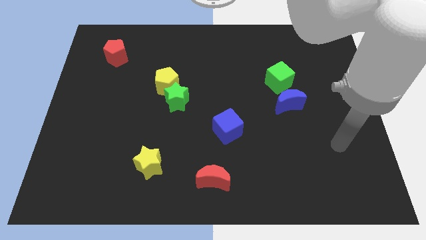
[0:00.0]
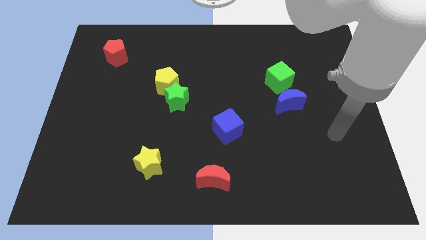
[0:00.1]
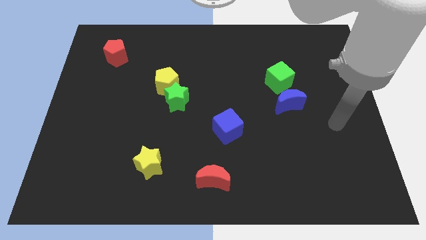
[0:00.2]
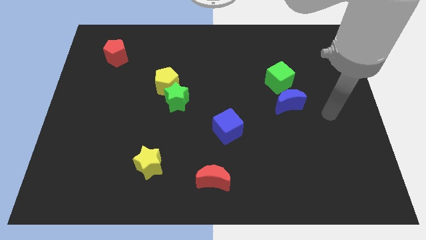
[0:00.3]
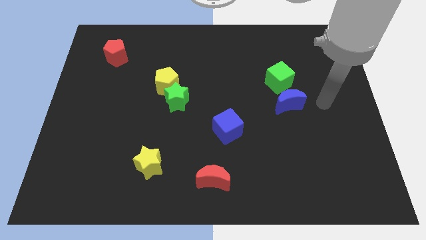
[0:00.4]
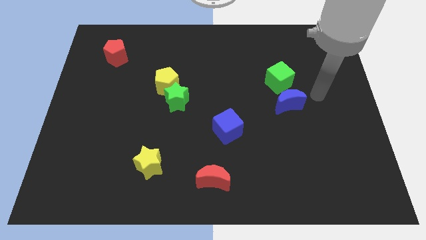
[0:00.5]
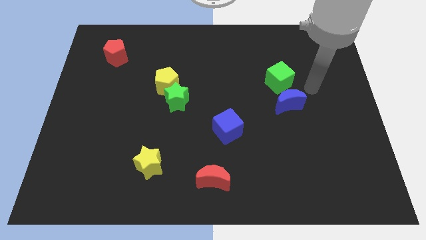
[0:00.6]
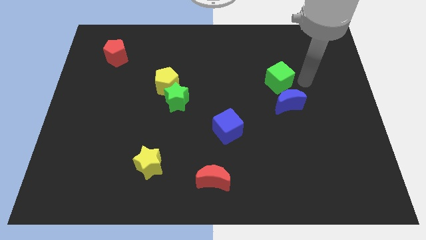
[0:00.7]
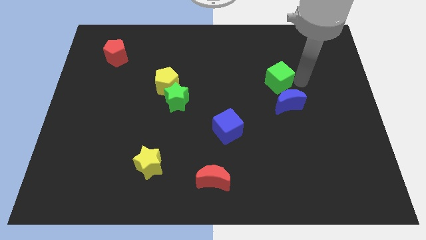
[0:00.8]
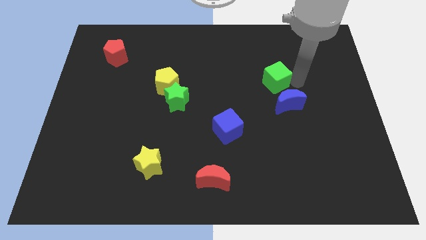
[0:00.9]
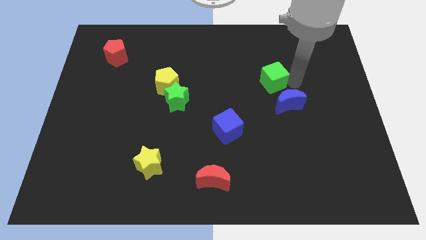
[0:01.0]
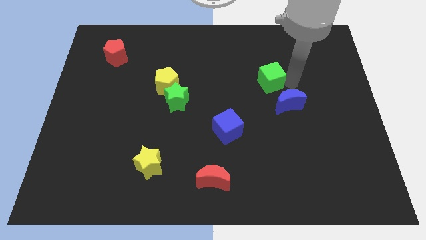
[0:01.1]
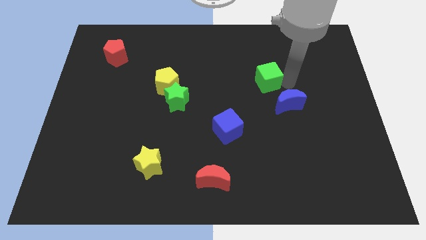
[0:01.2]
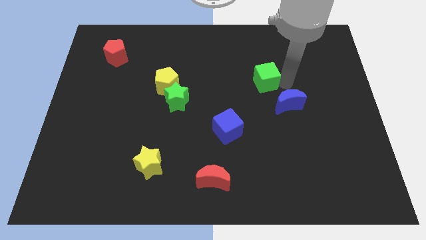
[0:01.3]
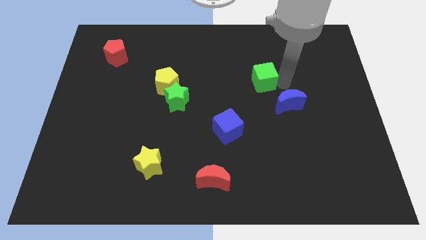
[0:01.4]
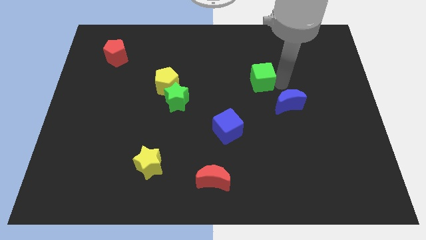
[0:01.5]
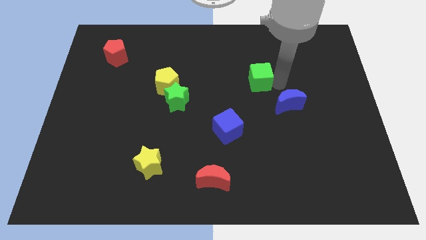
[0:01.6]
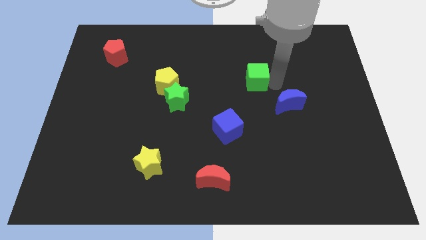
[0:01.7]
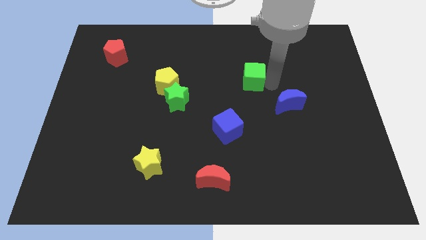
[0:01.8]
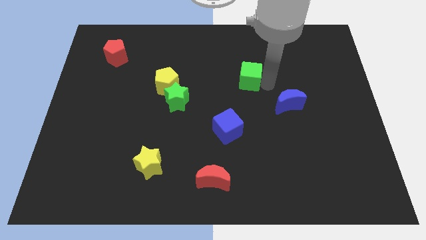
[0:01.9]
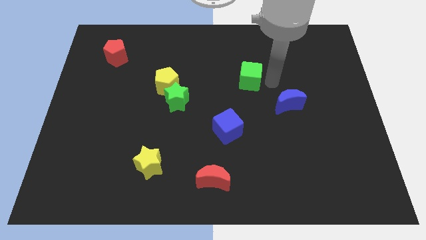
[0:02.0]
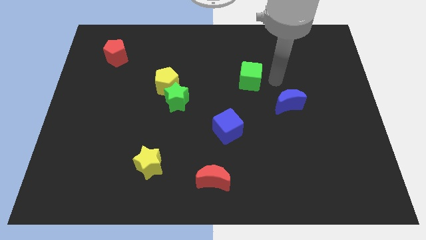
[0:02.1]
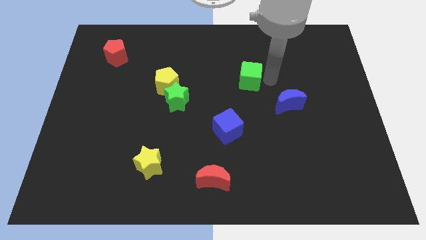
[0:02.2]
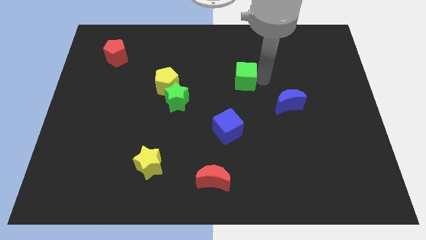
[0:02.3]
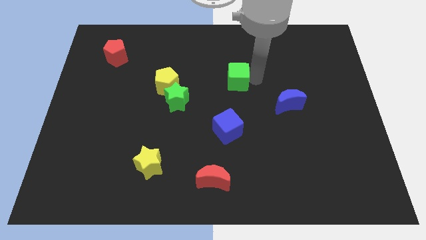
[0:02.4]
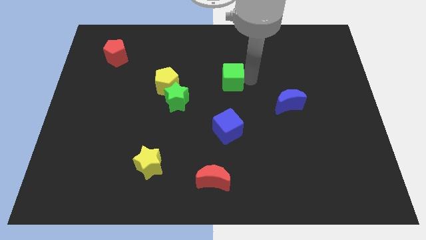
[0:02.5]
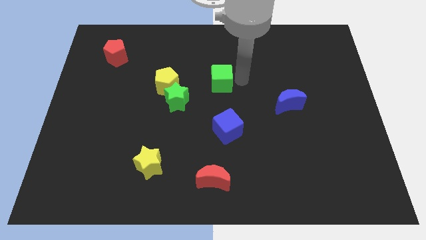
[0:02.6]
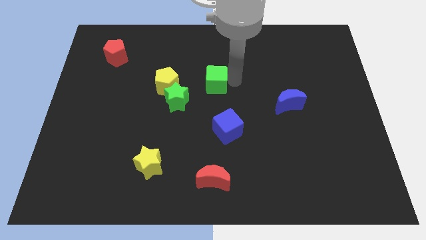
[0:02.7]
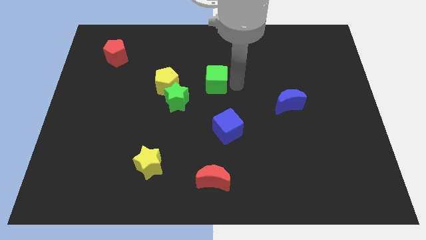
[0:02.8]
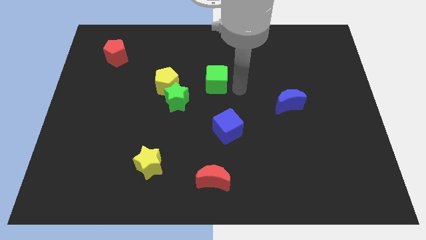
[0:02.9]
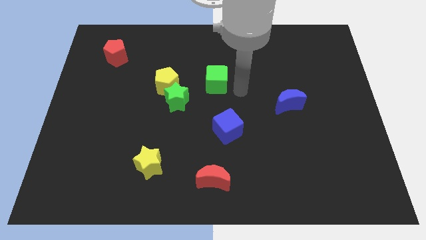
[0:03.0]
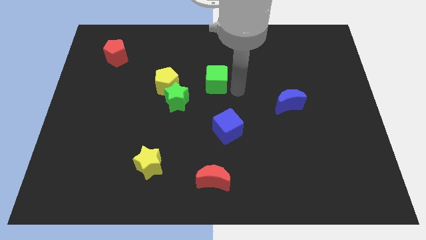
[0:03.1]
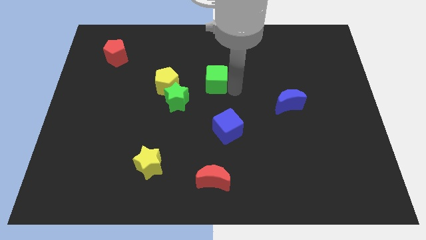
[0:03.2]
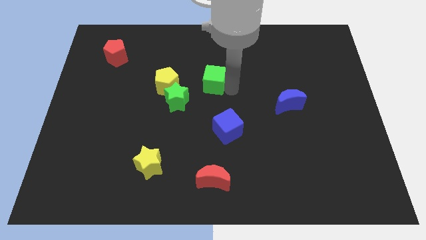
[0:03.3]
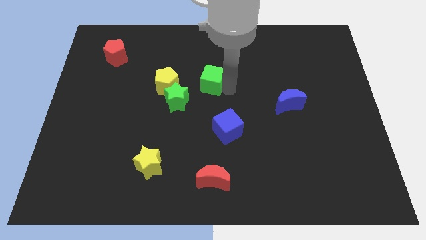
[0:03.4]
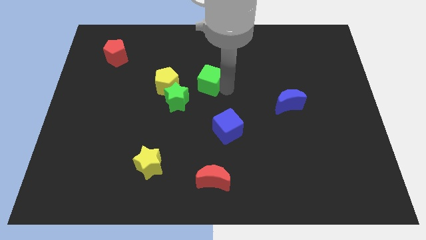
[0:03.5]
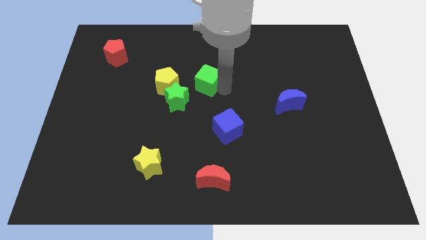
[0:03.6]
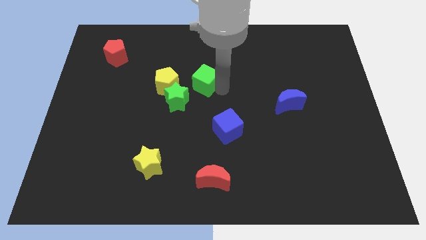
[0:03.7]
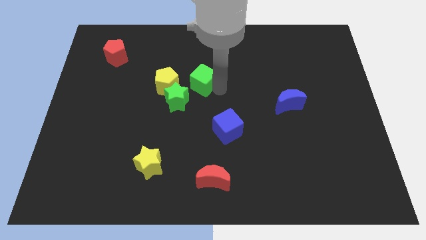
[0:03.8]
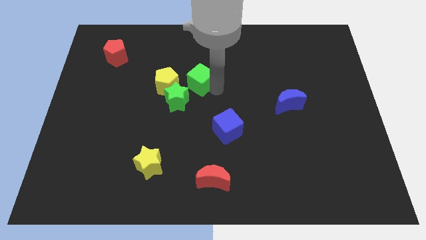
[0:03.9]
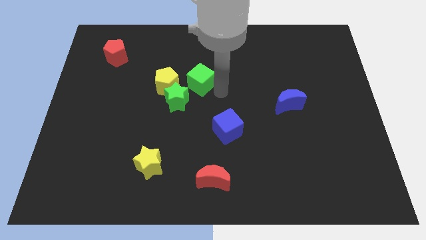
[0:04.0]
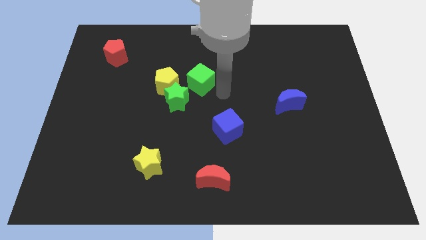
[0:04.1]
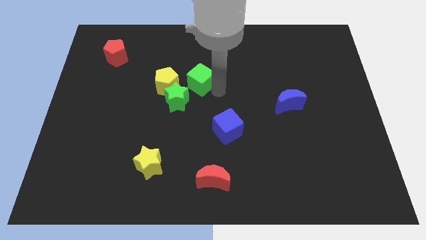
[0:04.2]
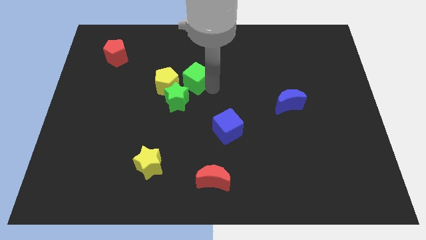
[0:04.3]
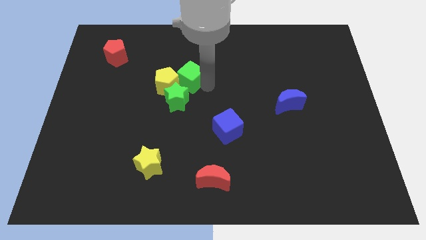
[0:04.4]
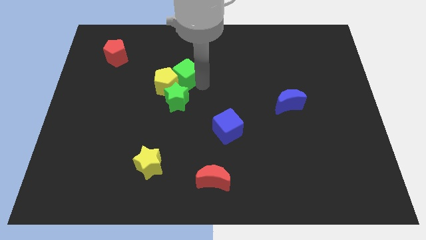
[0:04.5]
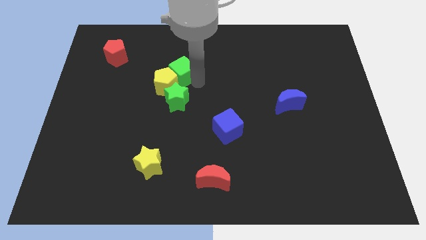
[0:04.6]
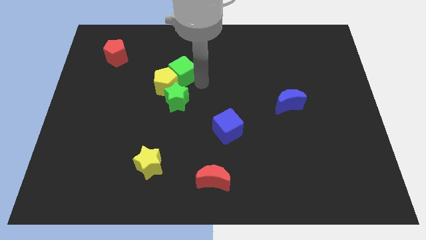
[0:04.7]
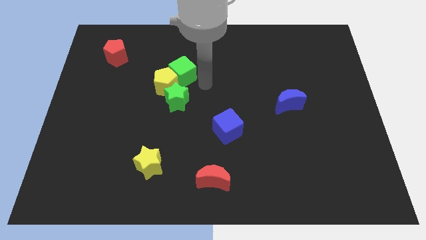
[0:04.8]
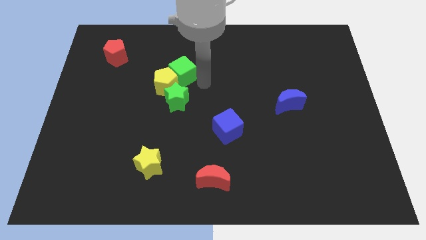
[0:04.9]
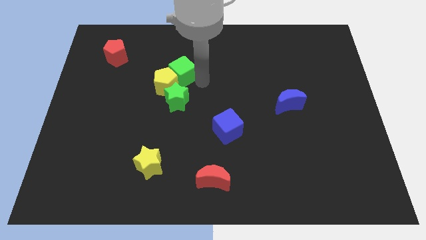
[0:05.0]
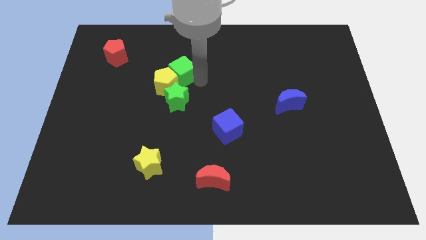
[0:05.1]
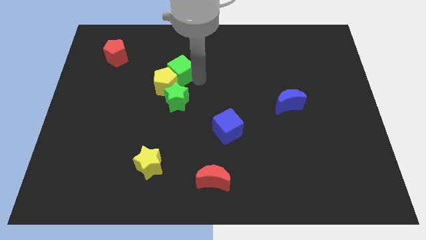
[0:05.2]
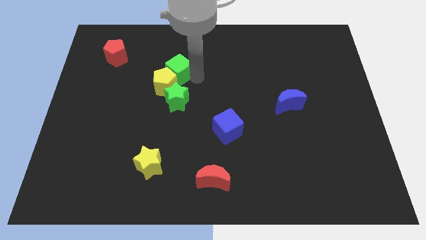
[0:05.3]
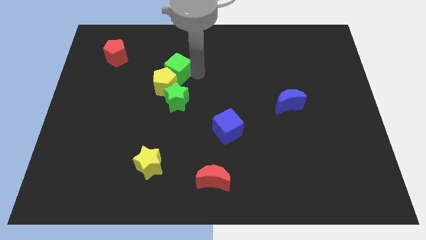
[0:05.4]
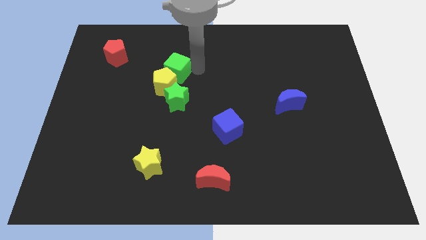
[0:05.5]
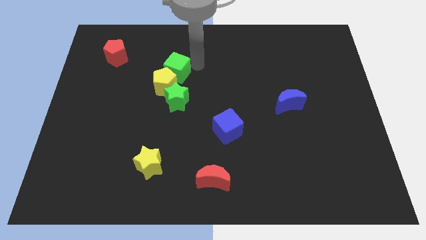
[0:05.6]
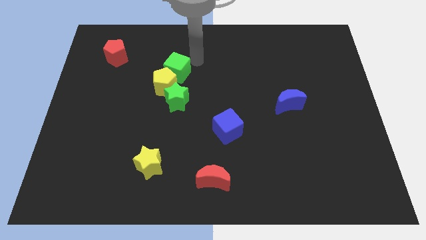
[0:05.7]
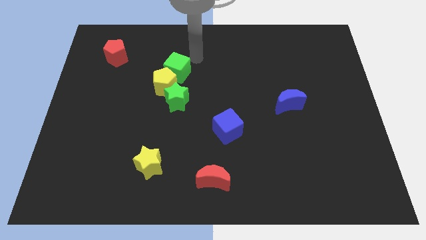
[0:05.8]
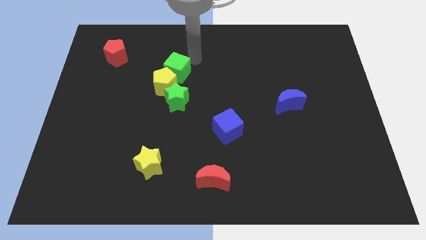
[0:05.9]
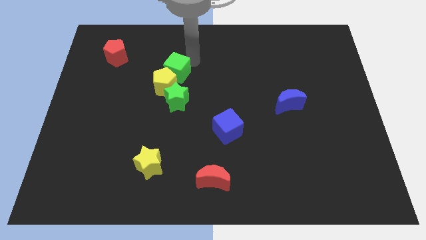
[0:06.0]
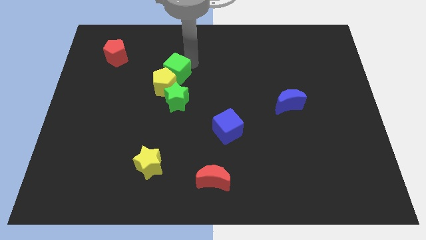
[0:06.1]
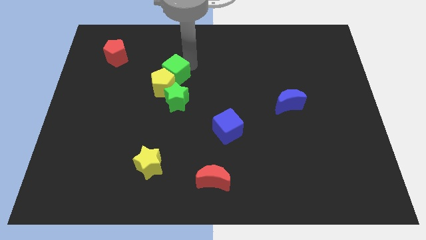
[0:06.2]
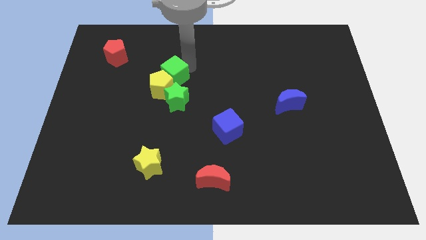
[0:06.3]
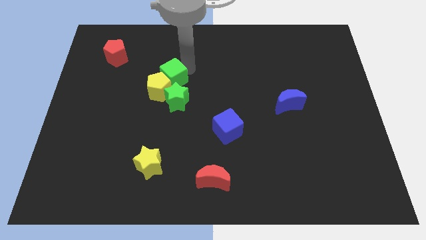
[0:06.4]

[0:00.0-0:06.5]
put the green cube diagonally up and to the left of the green star

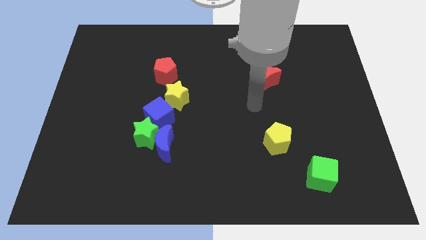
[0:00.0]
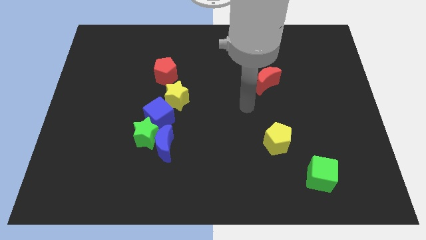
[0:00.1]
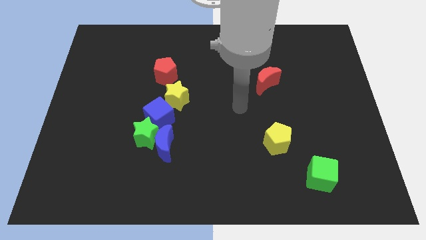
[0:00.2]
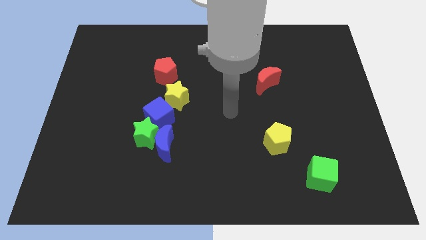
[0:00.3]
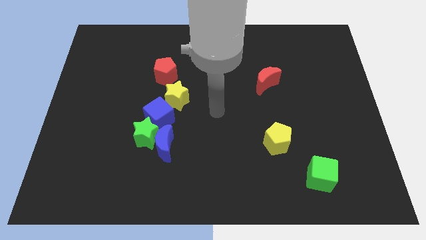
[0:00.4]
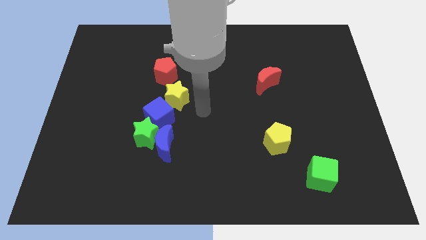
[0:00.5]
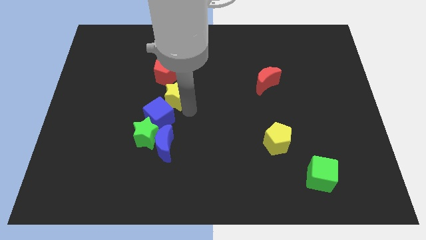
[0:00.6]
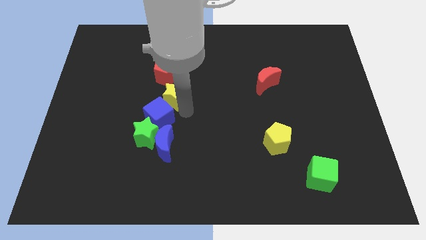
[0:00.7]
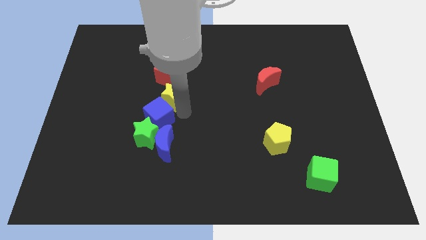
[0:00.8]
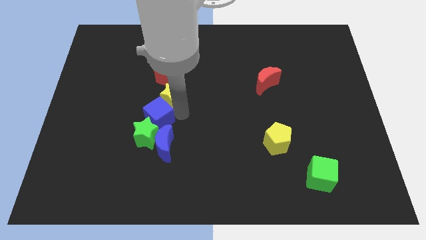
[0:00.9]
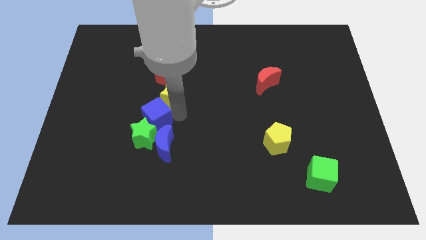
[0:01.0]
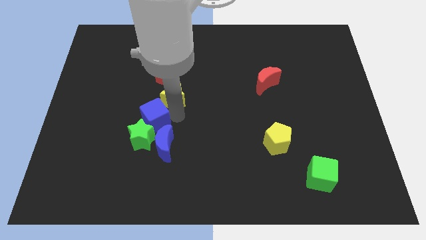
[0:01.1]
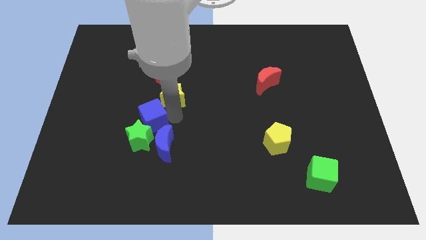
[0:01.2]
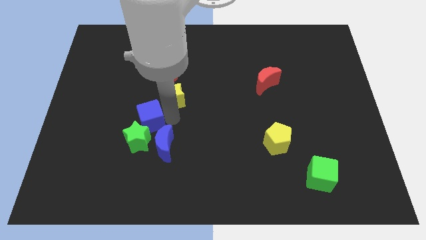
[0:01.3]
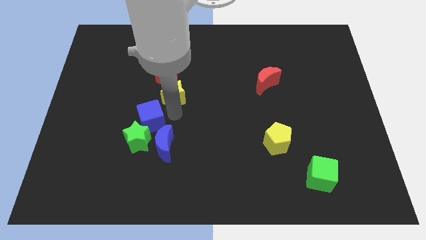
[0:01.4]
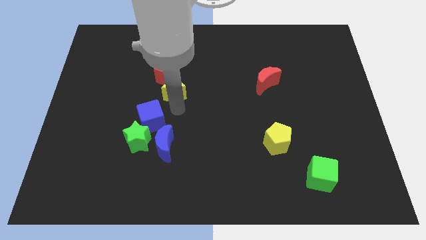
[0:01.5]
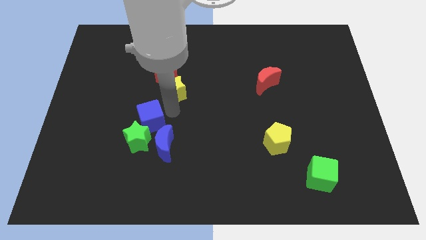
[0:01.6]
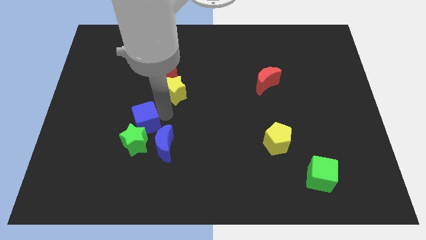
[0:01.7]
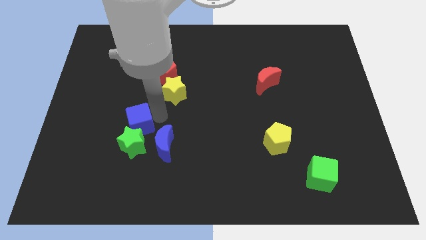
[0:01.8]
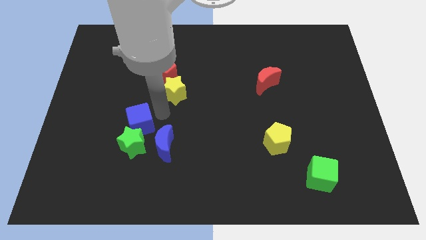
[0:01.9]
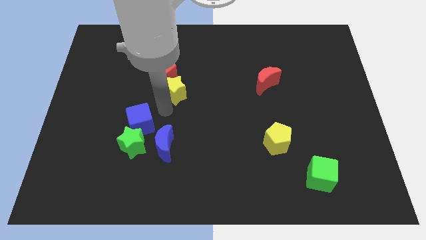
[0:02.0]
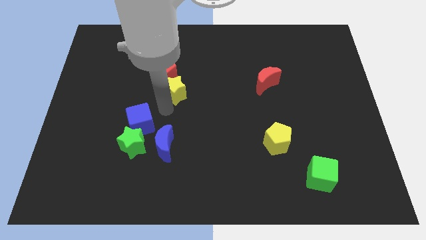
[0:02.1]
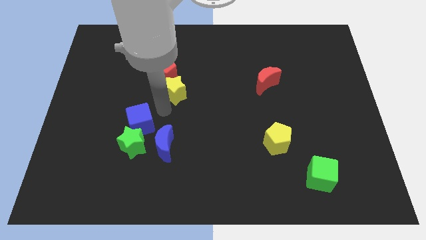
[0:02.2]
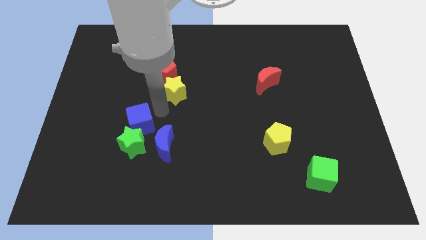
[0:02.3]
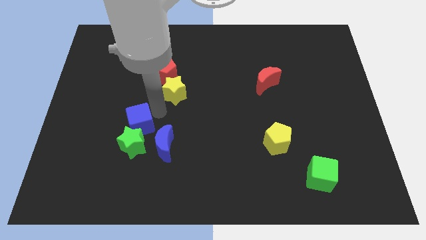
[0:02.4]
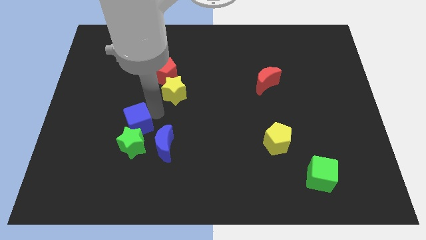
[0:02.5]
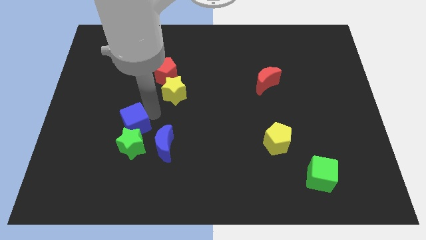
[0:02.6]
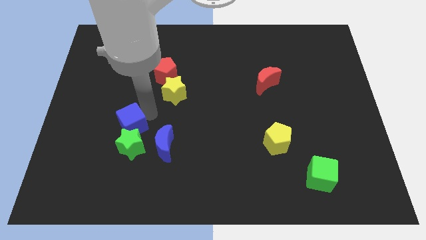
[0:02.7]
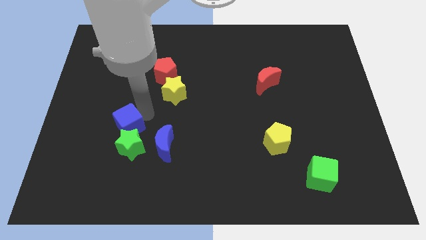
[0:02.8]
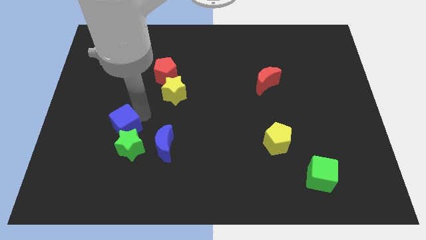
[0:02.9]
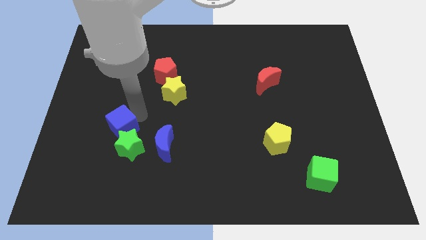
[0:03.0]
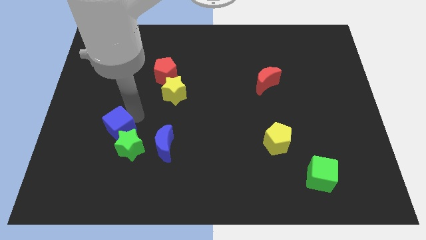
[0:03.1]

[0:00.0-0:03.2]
push the blue cube just left of the blue moon
